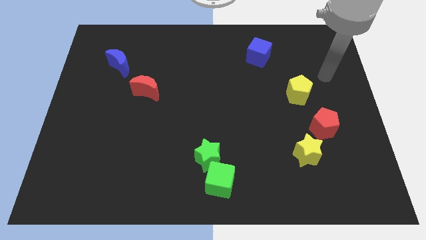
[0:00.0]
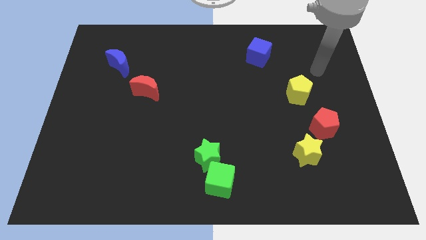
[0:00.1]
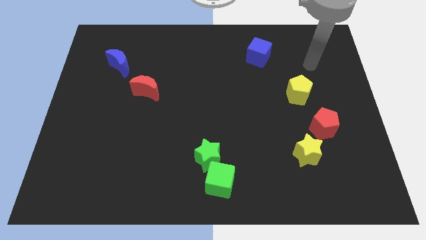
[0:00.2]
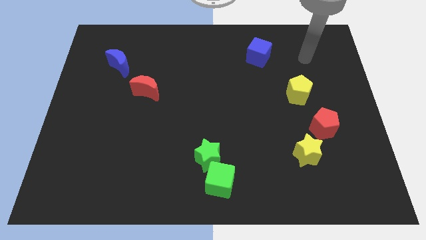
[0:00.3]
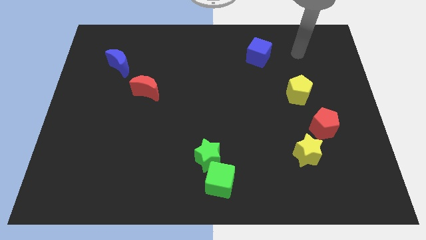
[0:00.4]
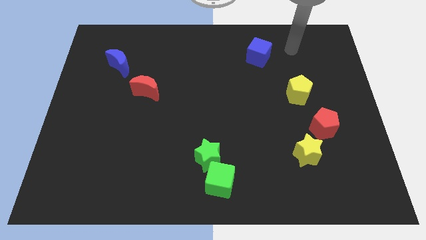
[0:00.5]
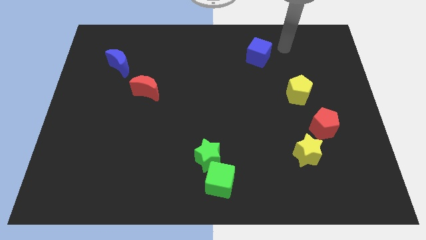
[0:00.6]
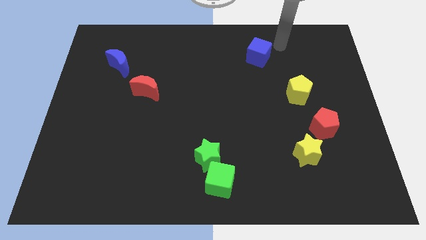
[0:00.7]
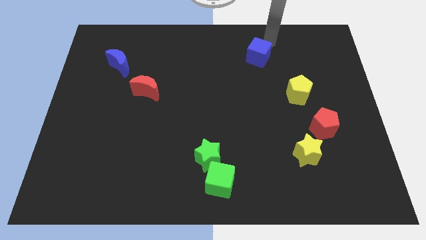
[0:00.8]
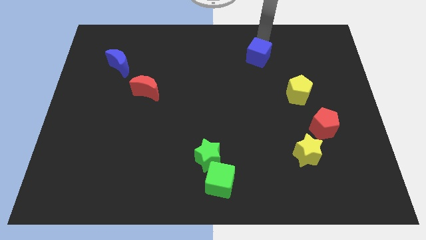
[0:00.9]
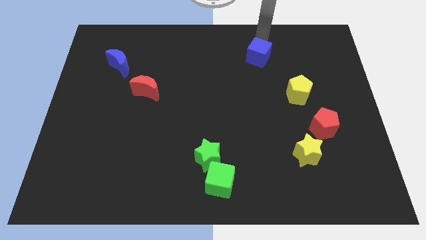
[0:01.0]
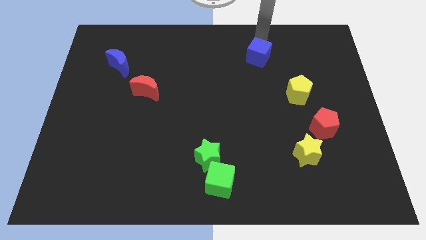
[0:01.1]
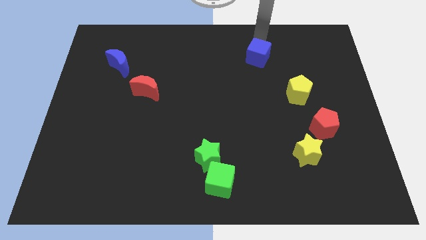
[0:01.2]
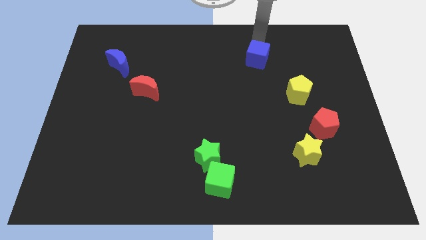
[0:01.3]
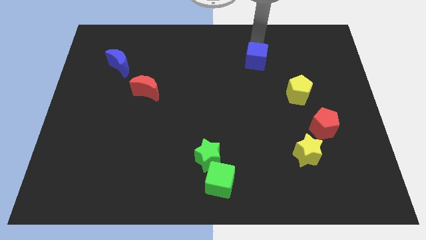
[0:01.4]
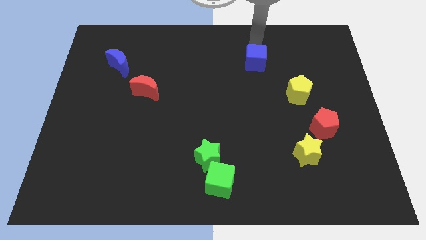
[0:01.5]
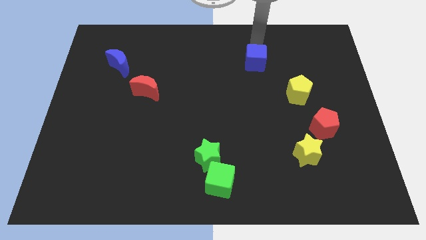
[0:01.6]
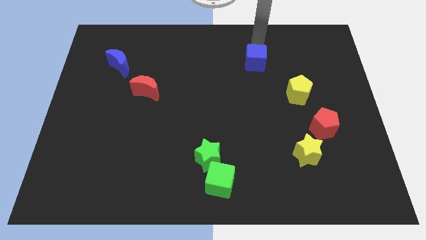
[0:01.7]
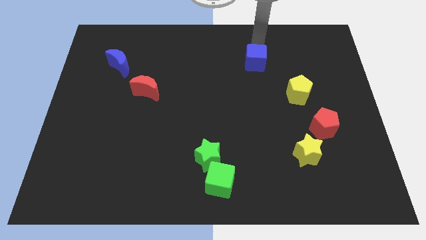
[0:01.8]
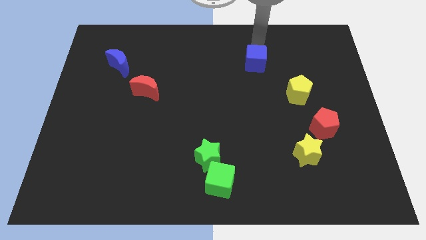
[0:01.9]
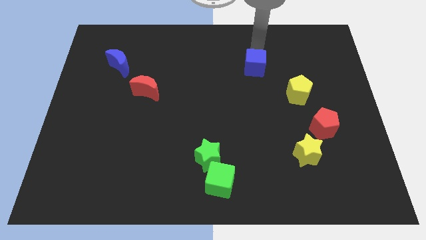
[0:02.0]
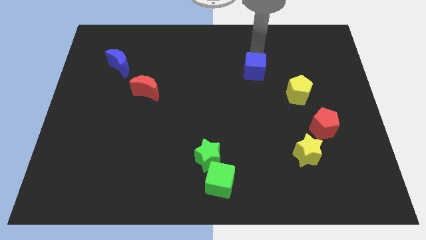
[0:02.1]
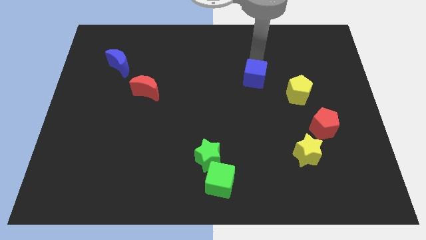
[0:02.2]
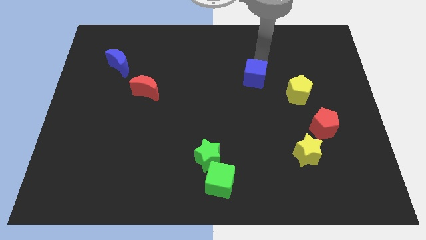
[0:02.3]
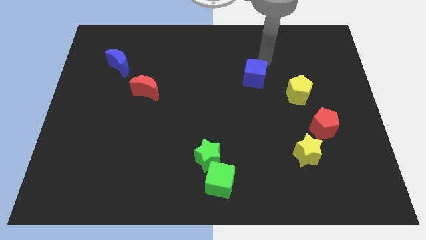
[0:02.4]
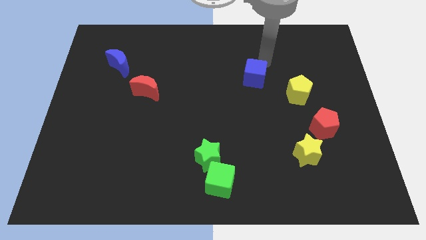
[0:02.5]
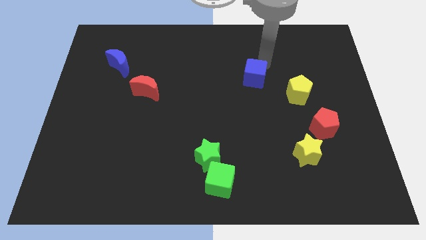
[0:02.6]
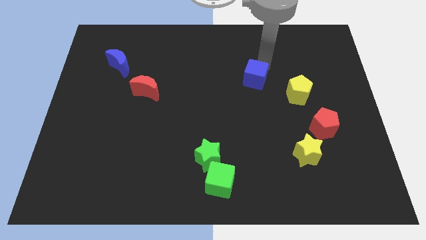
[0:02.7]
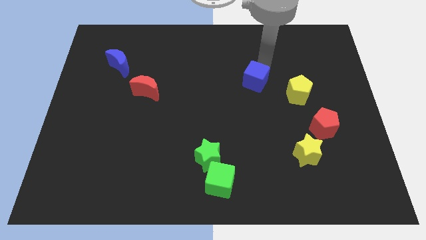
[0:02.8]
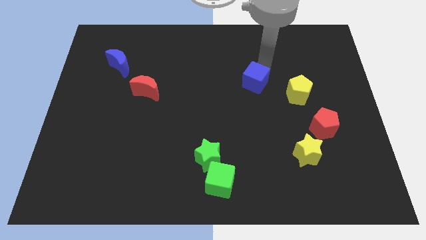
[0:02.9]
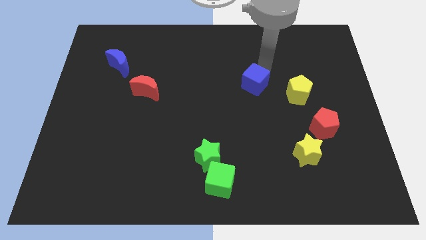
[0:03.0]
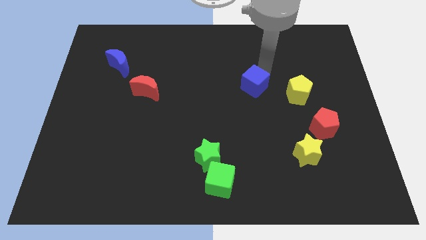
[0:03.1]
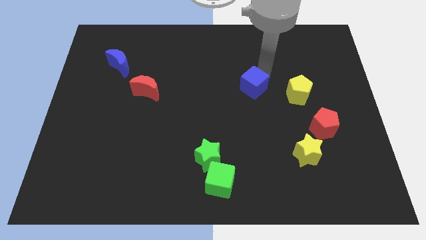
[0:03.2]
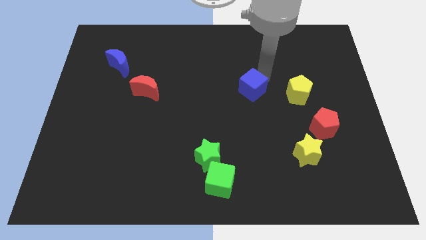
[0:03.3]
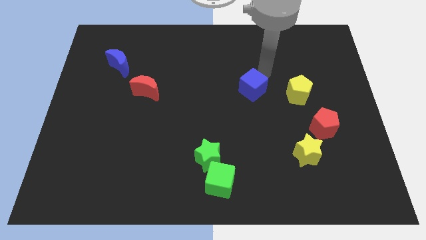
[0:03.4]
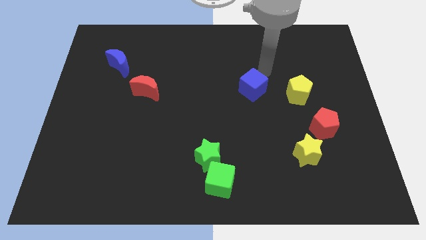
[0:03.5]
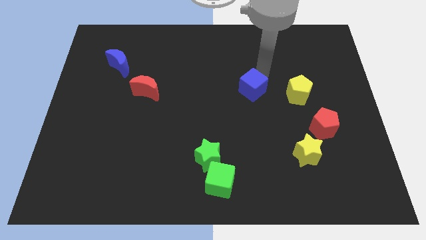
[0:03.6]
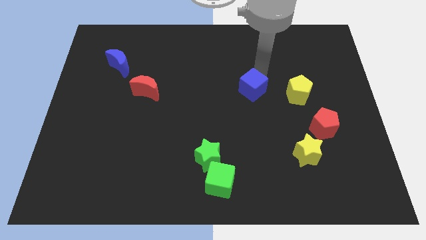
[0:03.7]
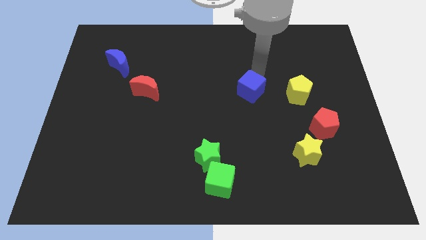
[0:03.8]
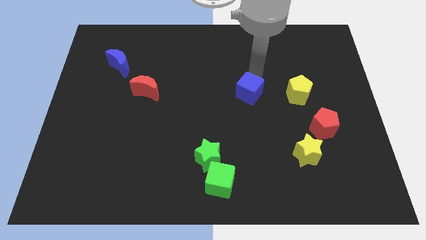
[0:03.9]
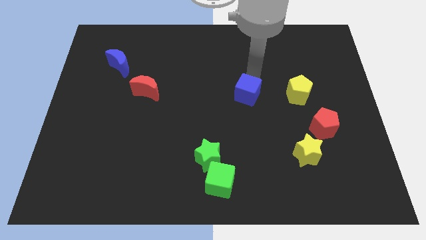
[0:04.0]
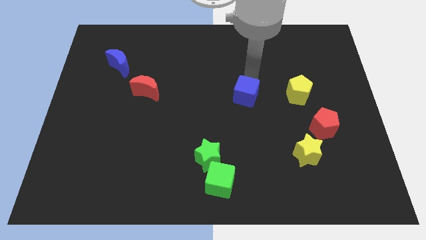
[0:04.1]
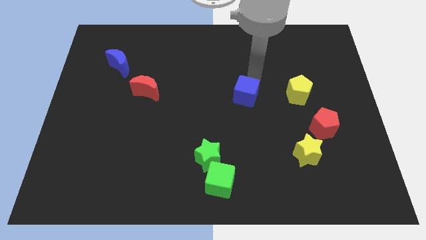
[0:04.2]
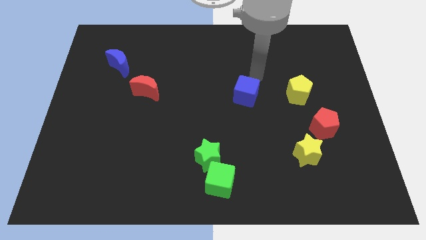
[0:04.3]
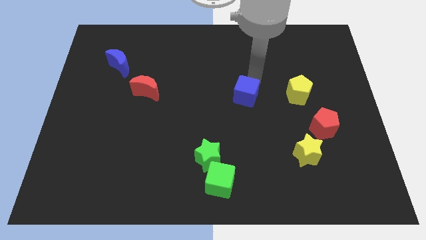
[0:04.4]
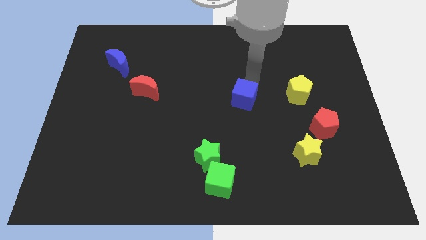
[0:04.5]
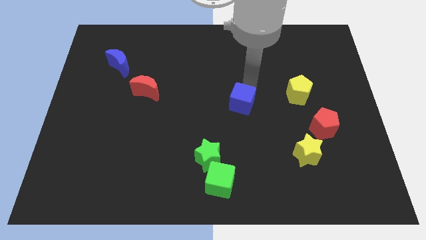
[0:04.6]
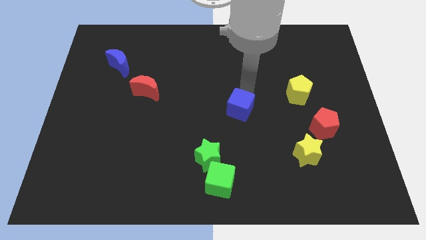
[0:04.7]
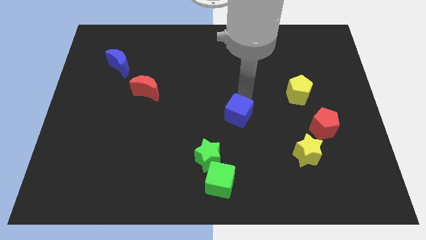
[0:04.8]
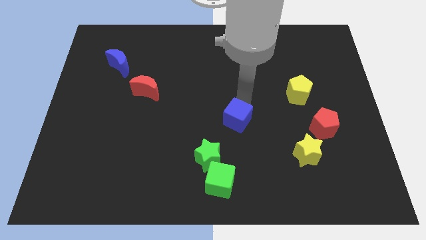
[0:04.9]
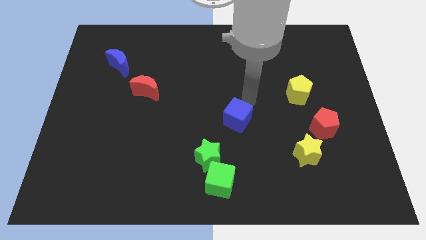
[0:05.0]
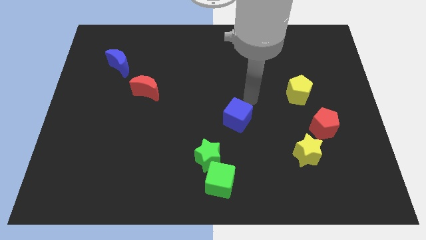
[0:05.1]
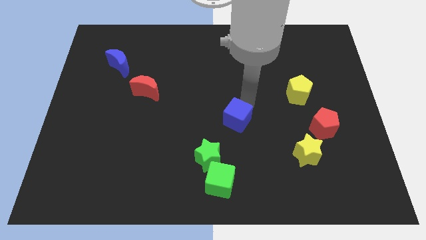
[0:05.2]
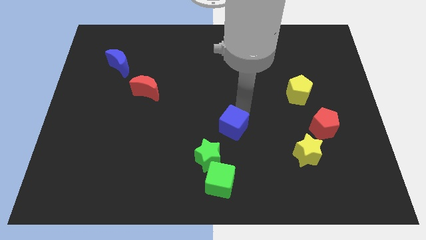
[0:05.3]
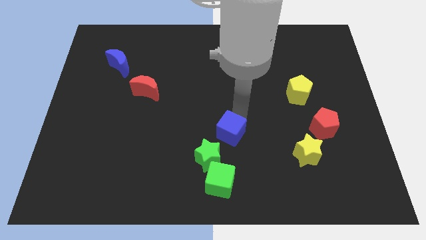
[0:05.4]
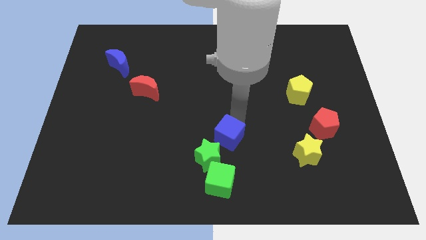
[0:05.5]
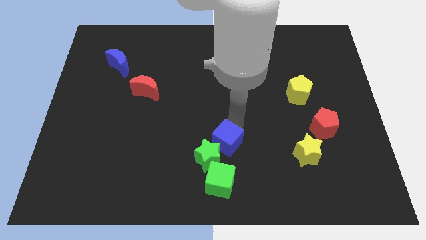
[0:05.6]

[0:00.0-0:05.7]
move the blue cube next to the green star

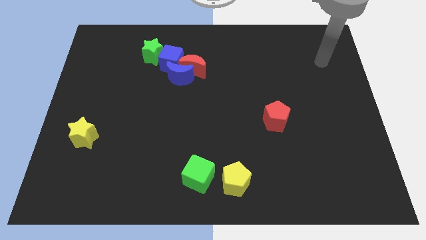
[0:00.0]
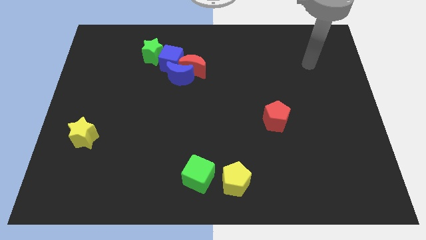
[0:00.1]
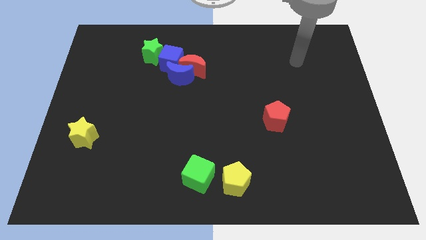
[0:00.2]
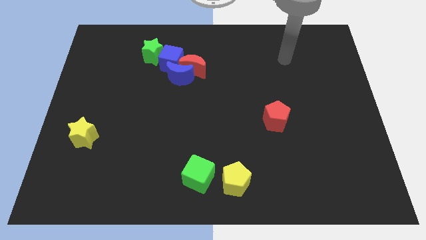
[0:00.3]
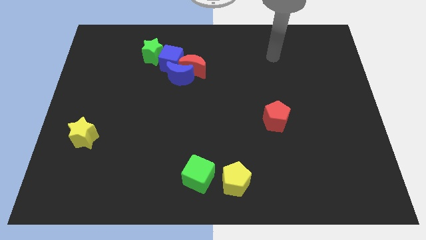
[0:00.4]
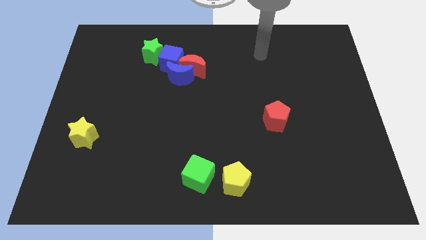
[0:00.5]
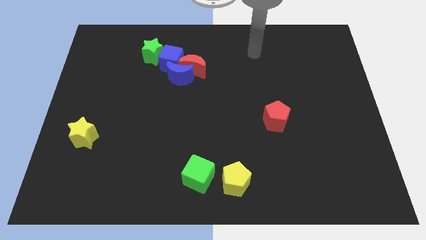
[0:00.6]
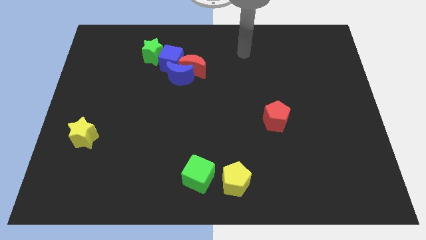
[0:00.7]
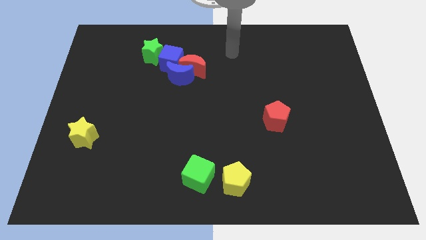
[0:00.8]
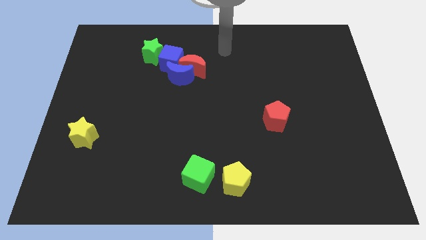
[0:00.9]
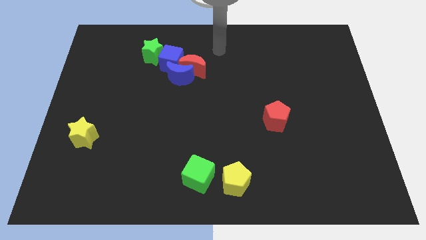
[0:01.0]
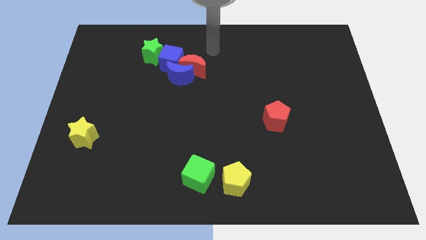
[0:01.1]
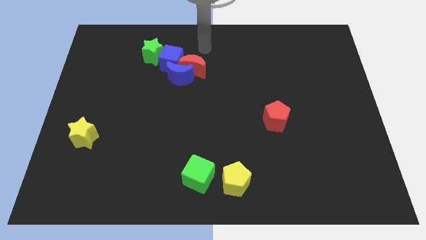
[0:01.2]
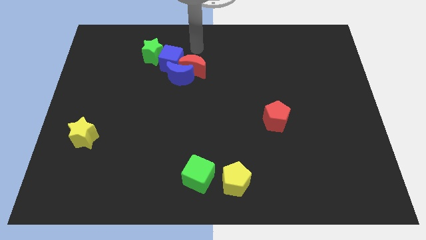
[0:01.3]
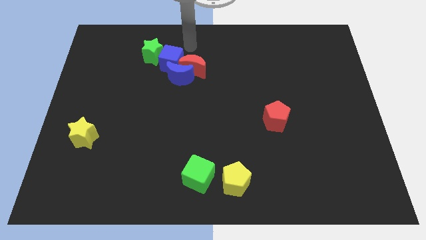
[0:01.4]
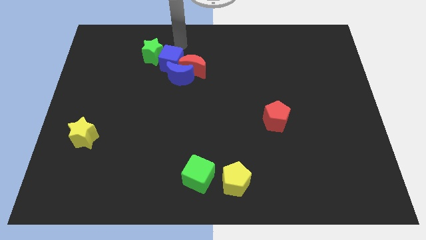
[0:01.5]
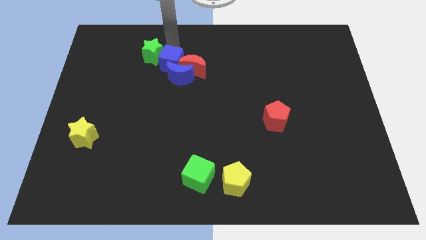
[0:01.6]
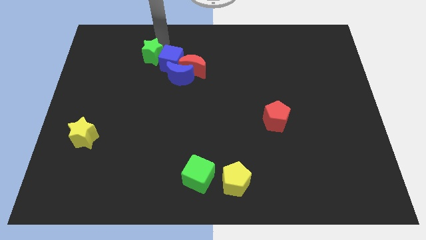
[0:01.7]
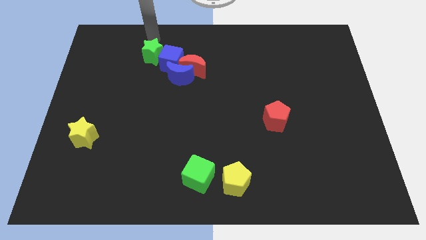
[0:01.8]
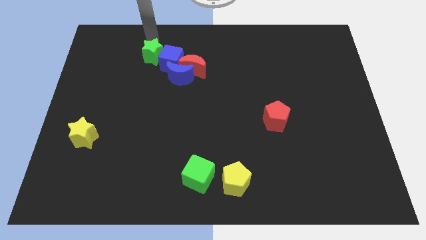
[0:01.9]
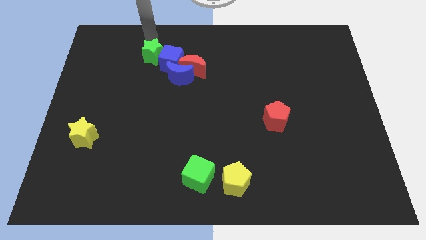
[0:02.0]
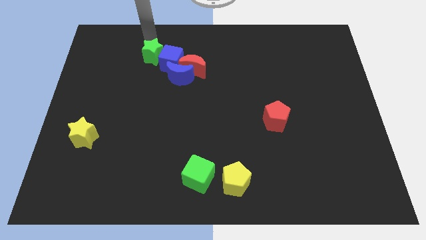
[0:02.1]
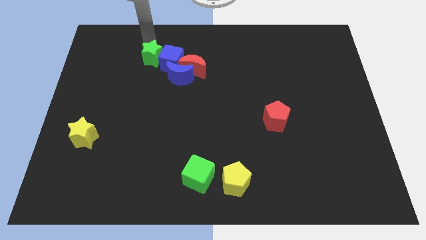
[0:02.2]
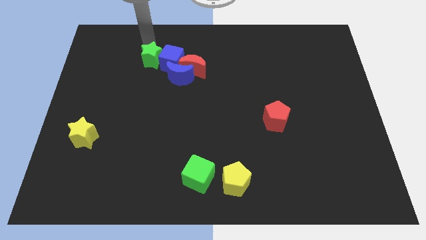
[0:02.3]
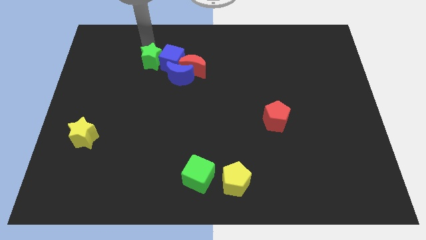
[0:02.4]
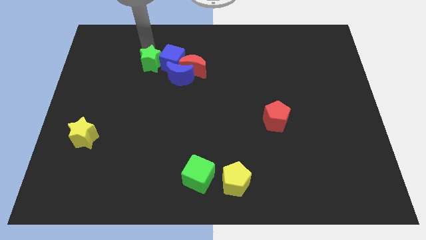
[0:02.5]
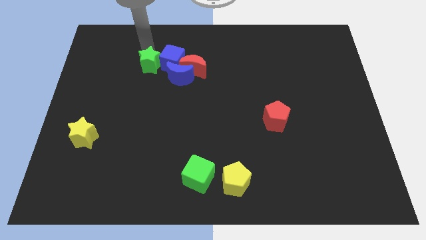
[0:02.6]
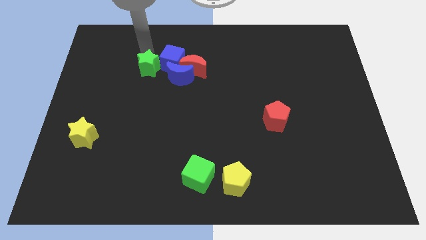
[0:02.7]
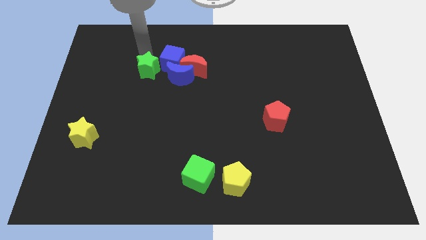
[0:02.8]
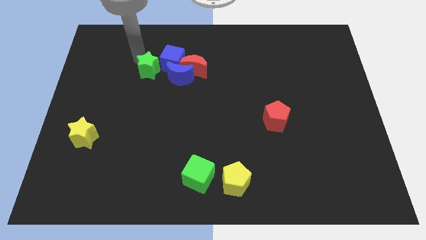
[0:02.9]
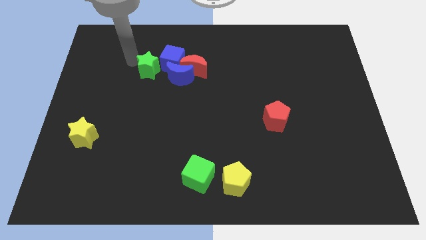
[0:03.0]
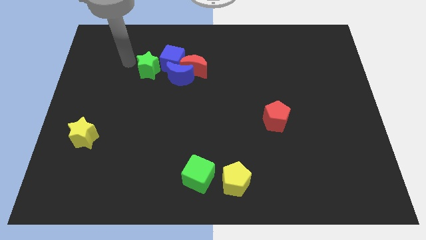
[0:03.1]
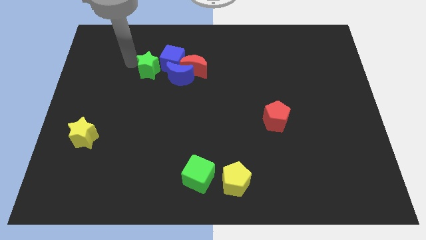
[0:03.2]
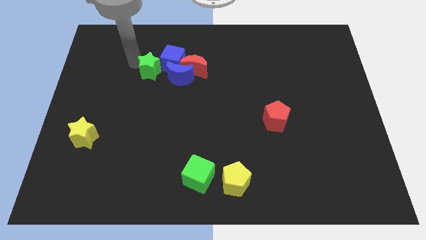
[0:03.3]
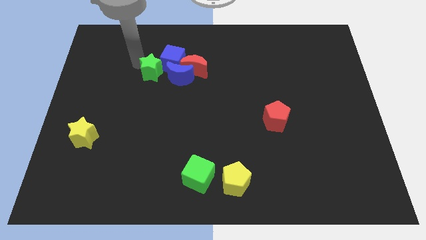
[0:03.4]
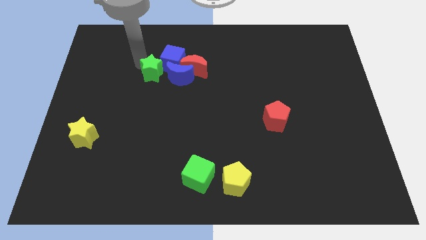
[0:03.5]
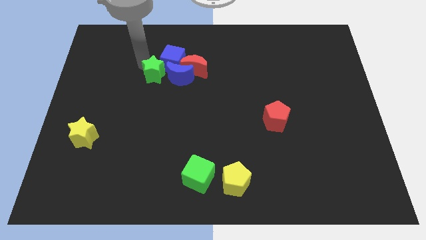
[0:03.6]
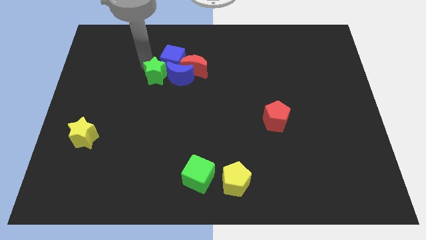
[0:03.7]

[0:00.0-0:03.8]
move the green star towards the blue moon
